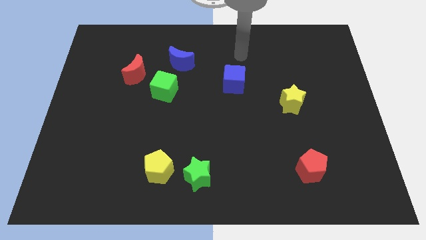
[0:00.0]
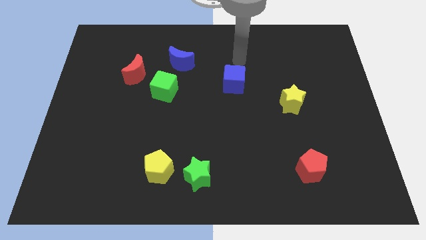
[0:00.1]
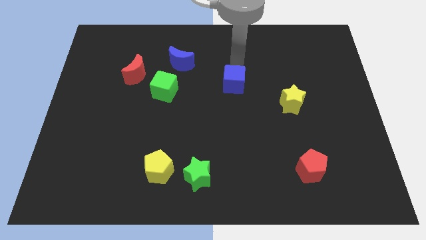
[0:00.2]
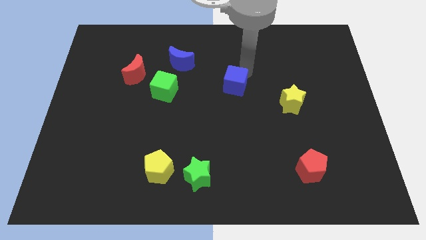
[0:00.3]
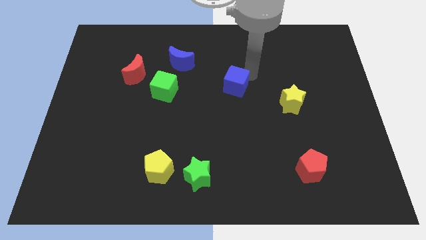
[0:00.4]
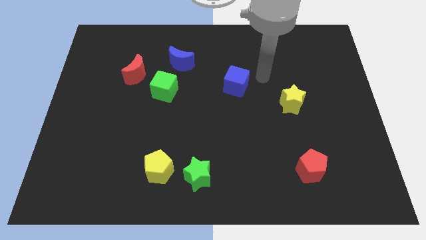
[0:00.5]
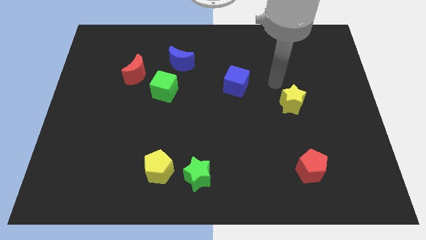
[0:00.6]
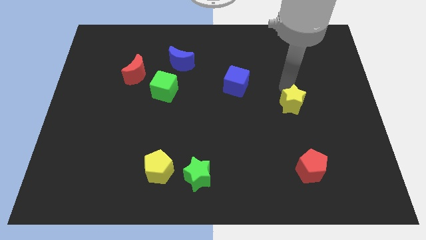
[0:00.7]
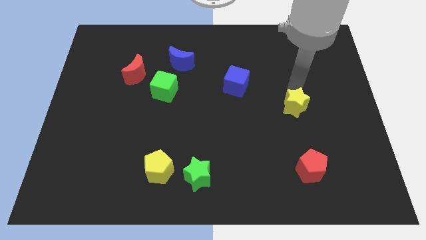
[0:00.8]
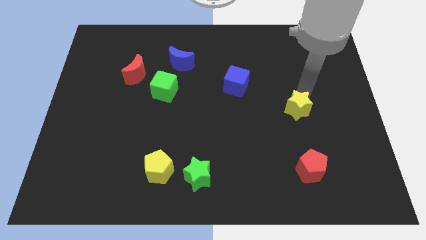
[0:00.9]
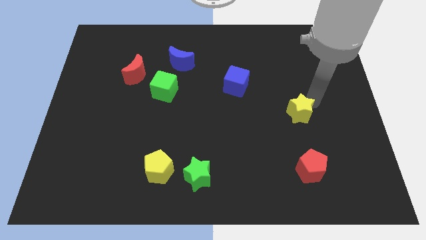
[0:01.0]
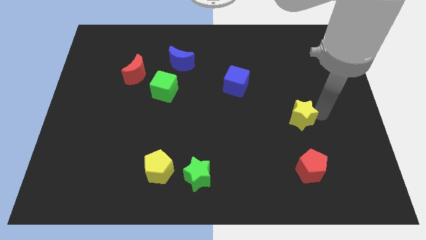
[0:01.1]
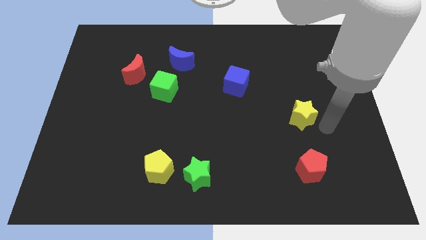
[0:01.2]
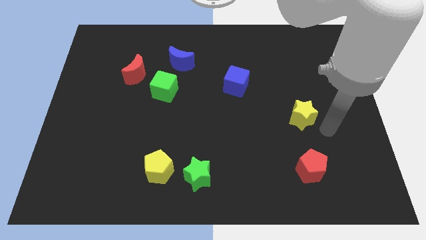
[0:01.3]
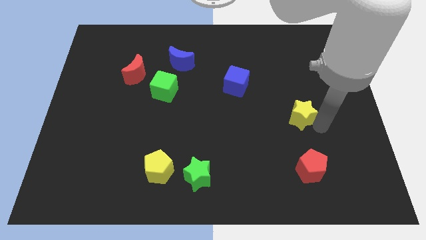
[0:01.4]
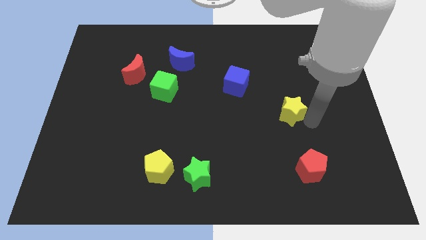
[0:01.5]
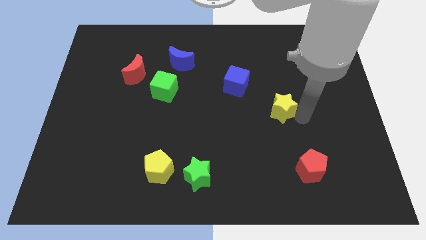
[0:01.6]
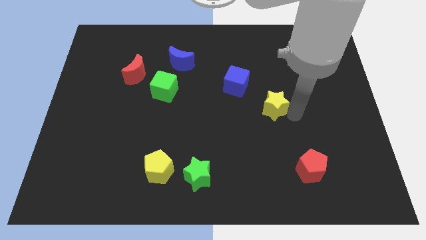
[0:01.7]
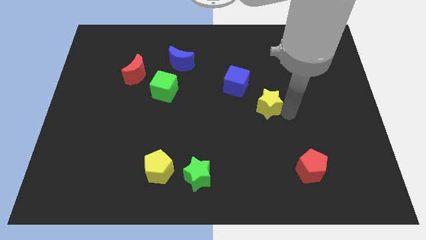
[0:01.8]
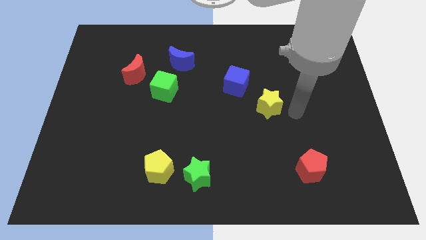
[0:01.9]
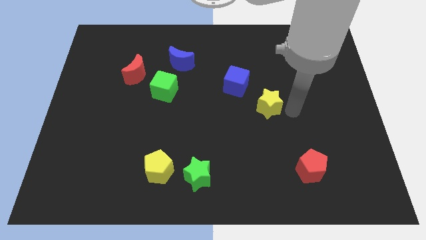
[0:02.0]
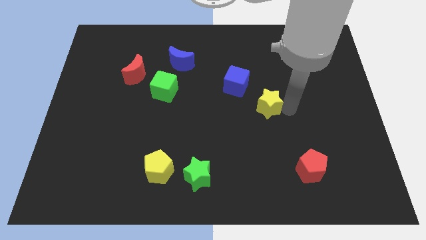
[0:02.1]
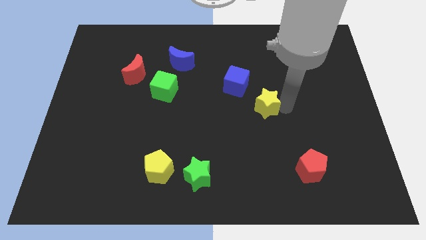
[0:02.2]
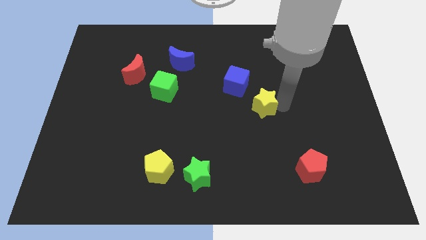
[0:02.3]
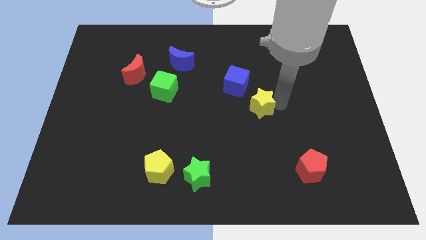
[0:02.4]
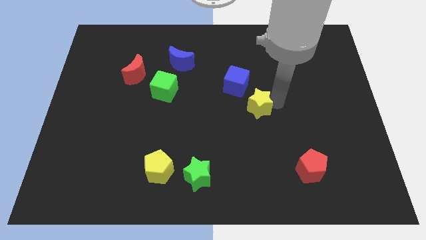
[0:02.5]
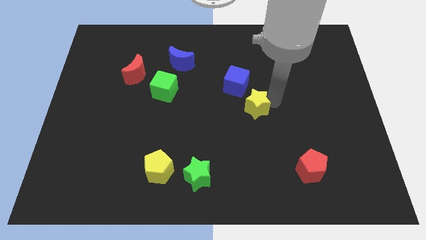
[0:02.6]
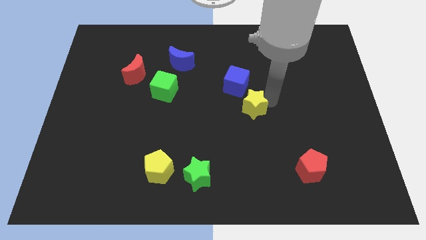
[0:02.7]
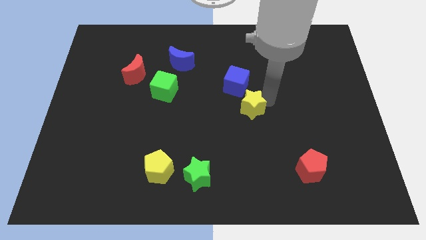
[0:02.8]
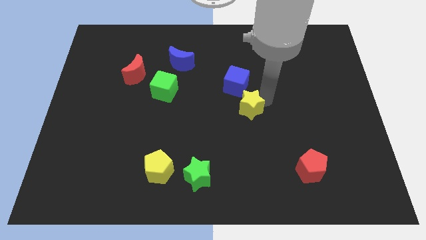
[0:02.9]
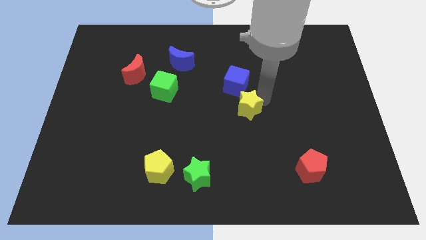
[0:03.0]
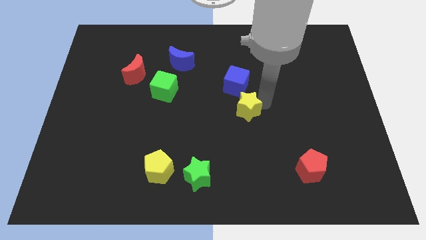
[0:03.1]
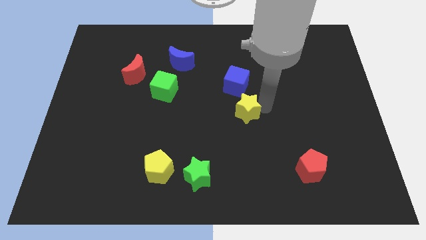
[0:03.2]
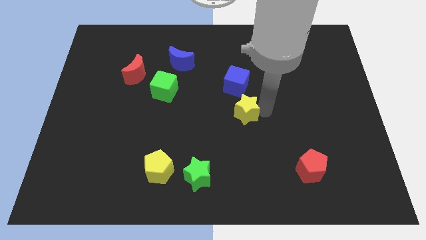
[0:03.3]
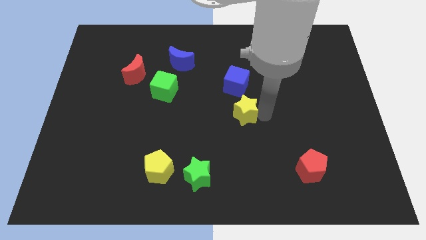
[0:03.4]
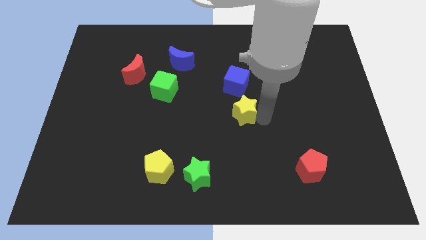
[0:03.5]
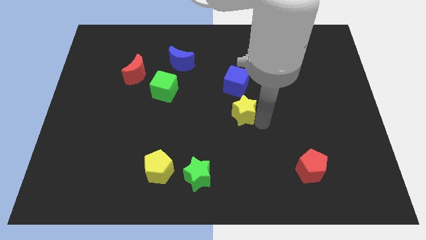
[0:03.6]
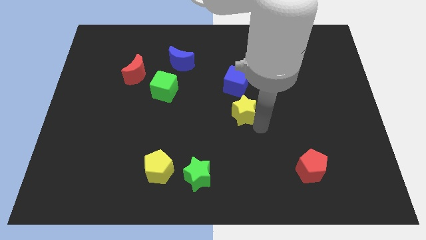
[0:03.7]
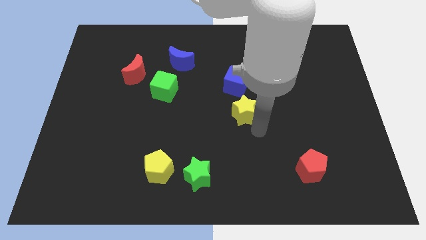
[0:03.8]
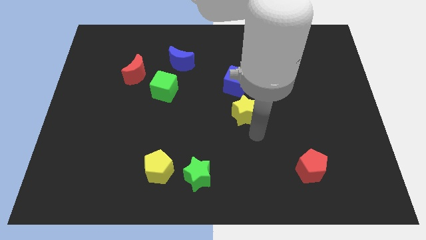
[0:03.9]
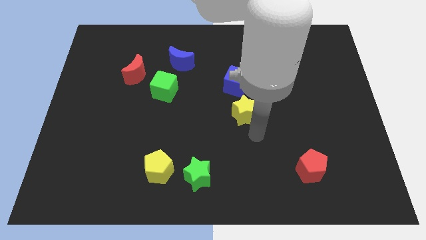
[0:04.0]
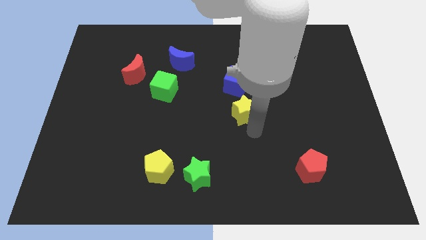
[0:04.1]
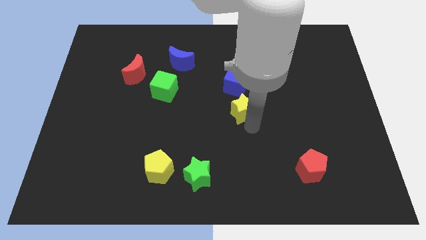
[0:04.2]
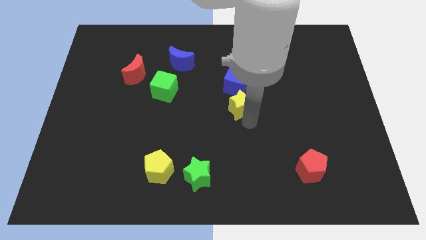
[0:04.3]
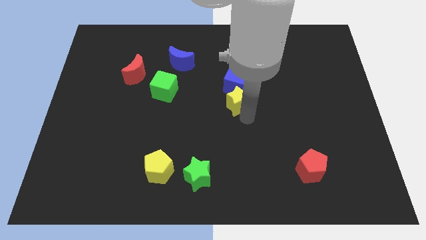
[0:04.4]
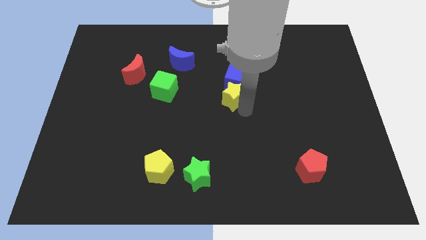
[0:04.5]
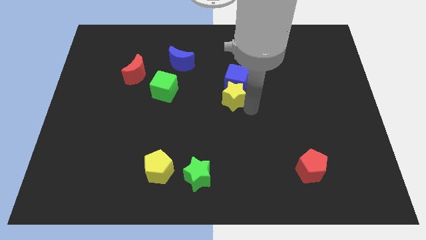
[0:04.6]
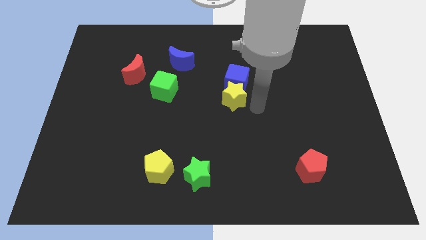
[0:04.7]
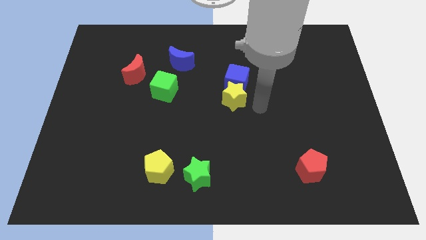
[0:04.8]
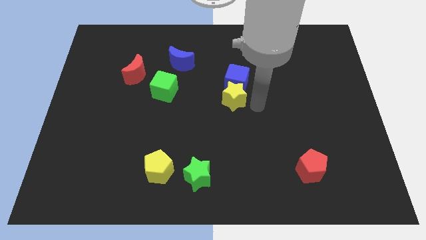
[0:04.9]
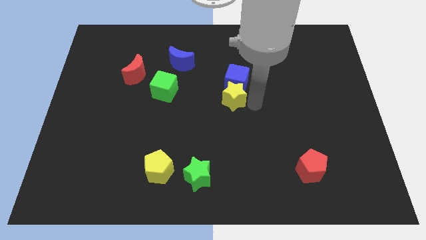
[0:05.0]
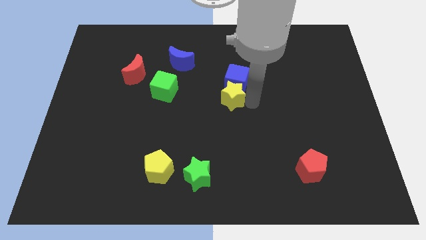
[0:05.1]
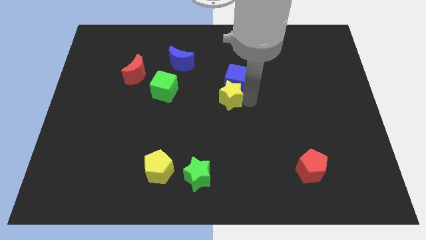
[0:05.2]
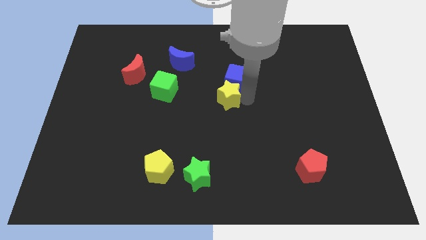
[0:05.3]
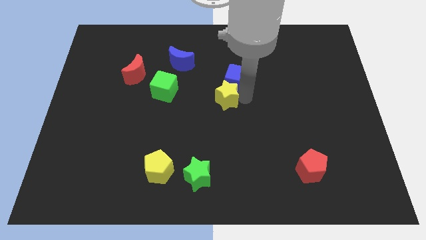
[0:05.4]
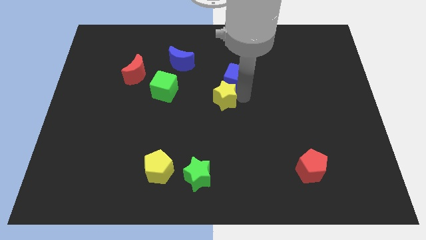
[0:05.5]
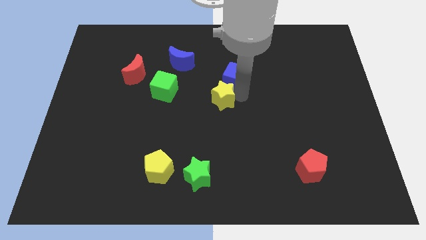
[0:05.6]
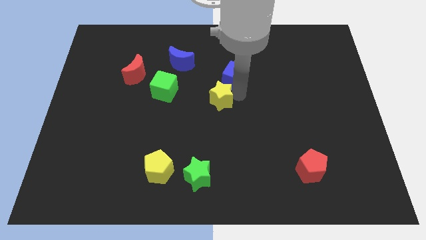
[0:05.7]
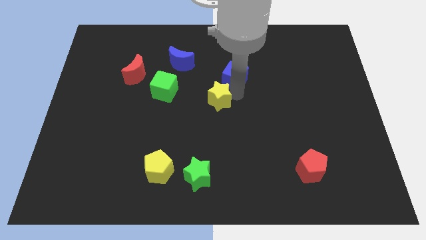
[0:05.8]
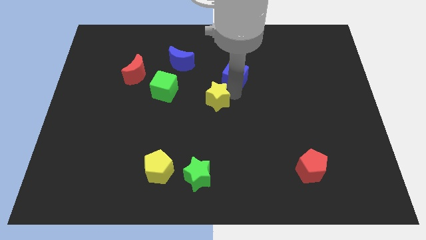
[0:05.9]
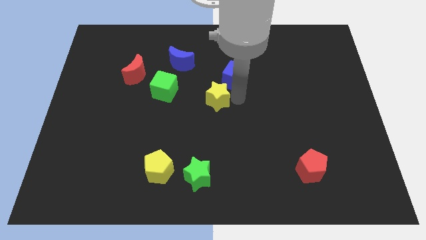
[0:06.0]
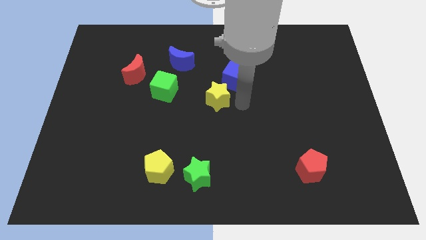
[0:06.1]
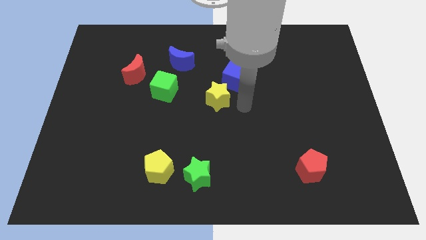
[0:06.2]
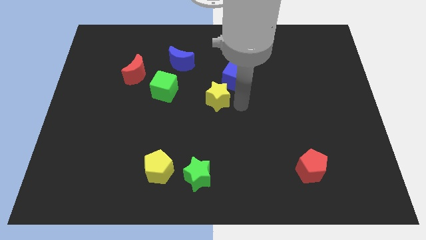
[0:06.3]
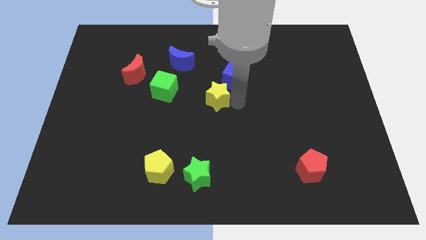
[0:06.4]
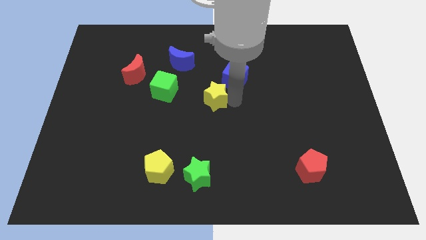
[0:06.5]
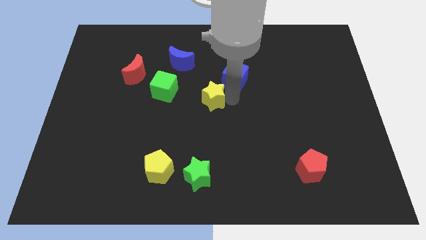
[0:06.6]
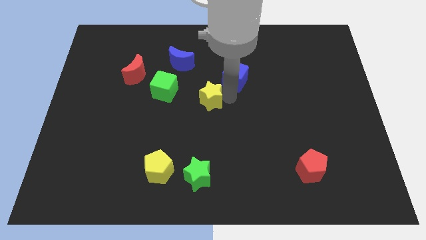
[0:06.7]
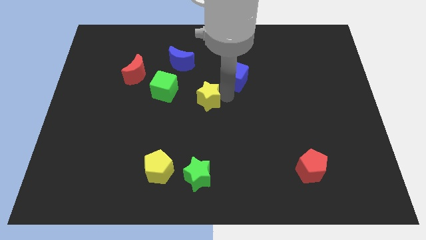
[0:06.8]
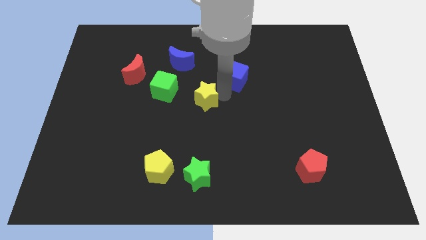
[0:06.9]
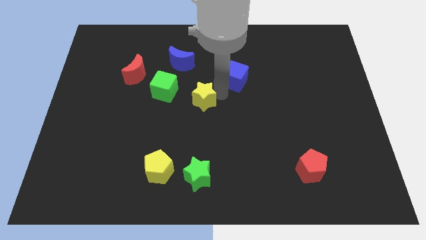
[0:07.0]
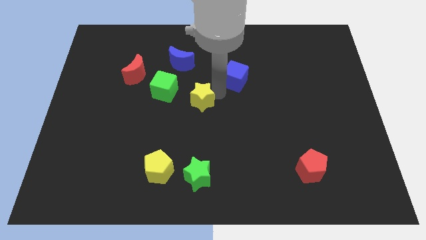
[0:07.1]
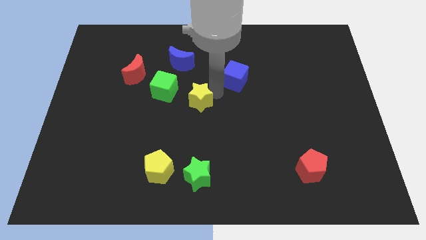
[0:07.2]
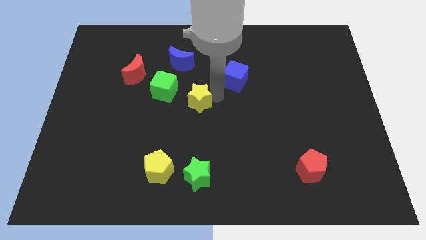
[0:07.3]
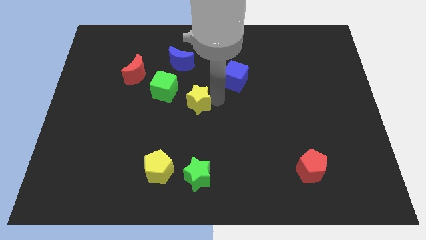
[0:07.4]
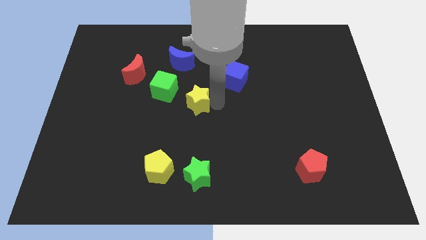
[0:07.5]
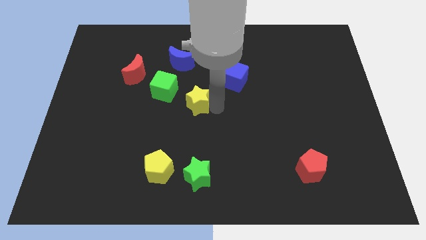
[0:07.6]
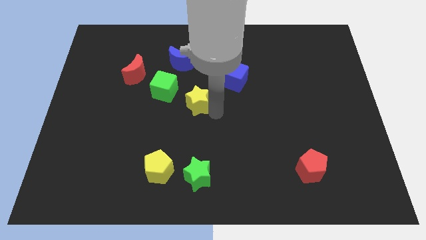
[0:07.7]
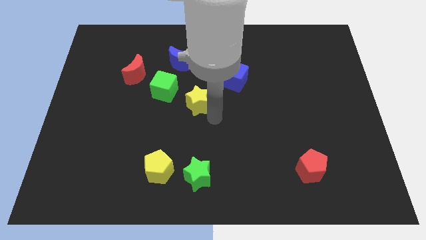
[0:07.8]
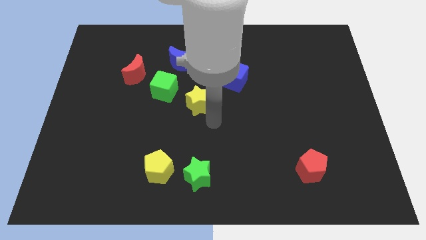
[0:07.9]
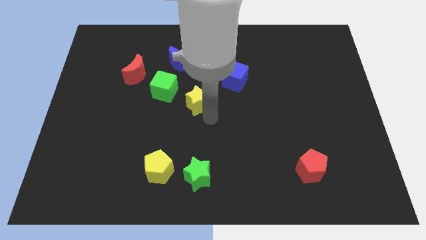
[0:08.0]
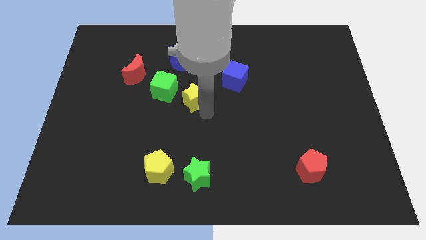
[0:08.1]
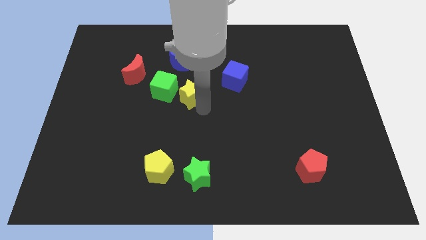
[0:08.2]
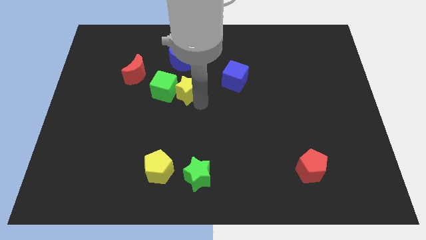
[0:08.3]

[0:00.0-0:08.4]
put the yellow star to the green cube
